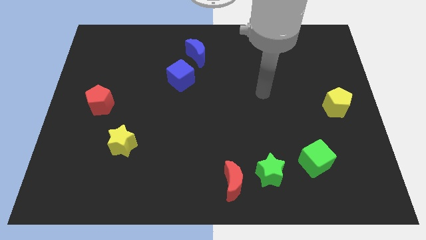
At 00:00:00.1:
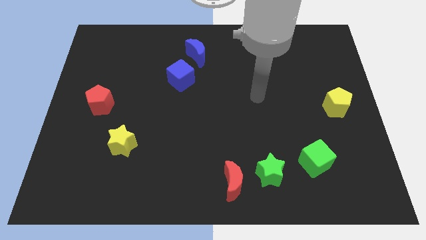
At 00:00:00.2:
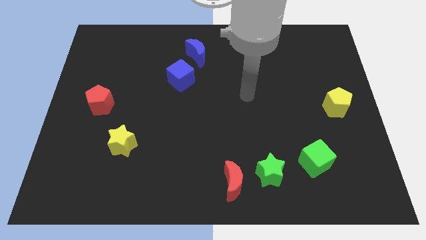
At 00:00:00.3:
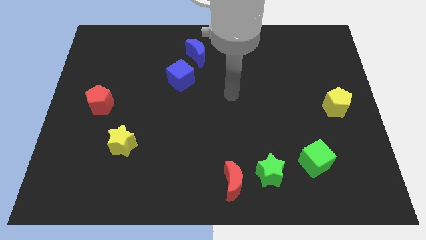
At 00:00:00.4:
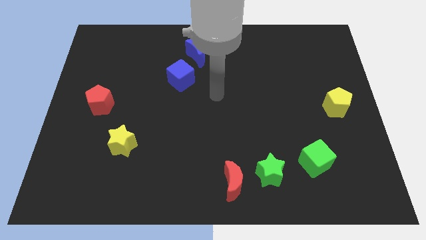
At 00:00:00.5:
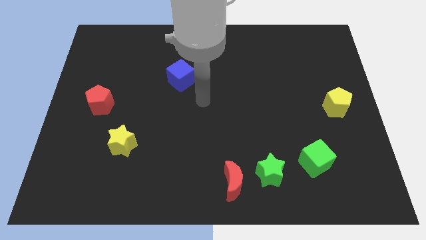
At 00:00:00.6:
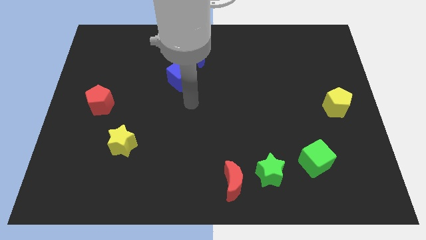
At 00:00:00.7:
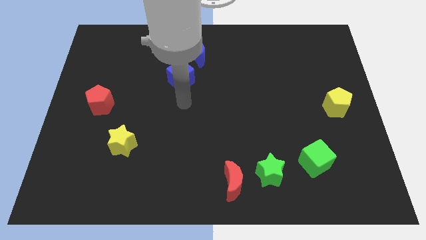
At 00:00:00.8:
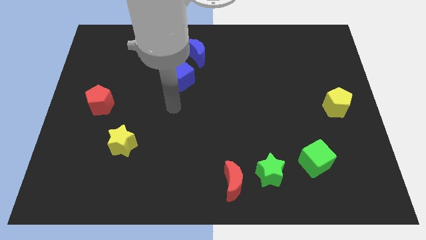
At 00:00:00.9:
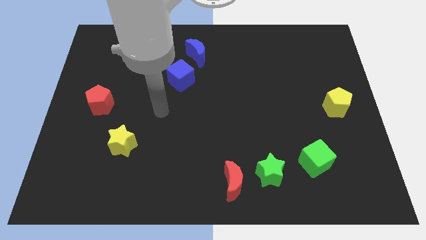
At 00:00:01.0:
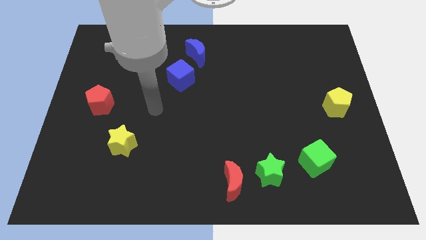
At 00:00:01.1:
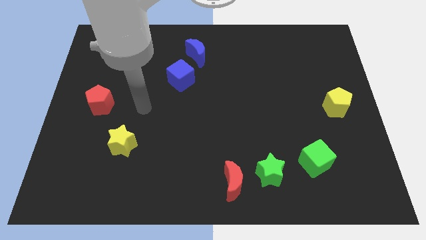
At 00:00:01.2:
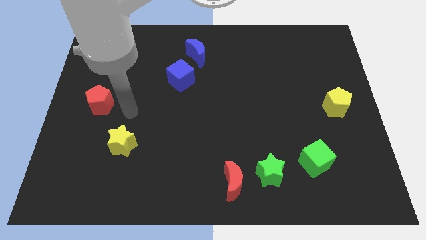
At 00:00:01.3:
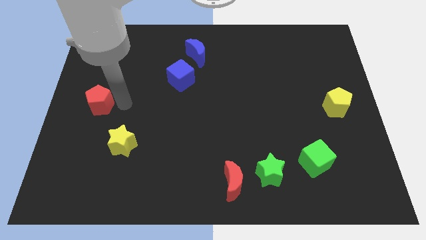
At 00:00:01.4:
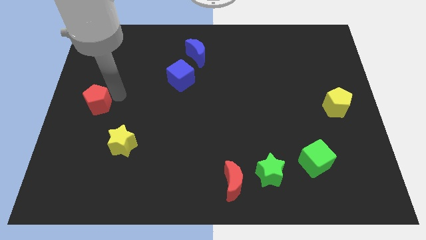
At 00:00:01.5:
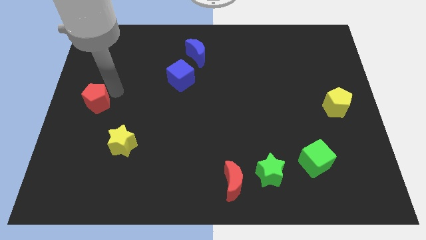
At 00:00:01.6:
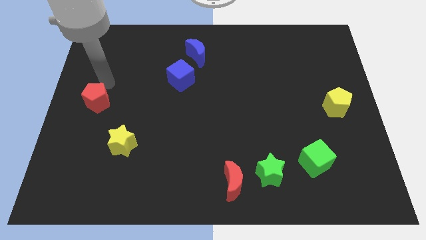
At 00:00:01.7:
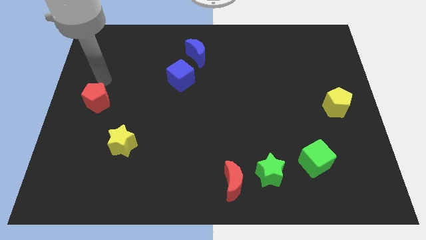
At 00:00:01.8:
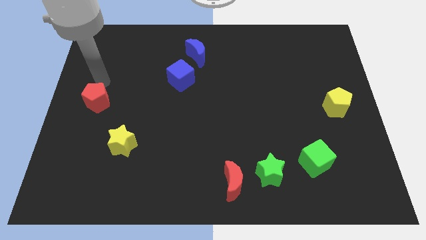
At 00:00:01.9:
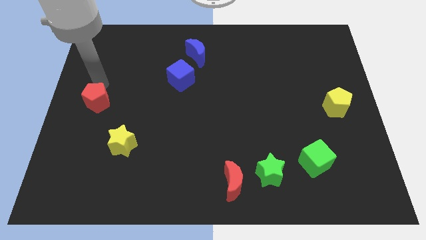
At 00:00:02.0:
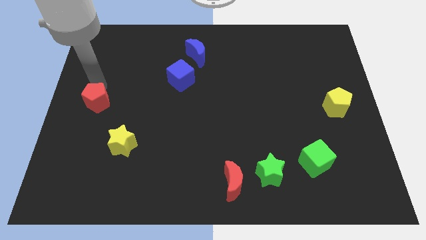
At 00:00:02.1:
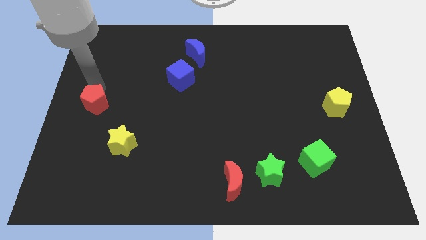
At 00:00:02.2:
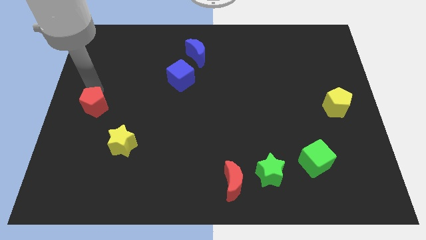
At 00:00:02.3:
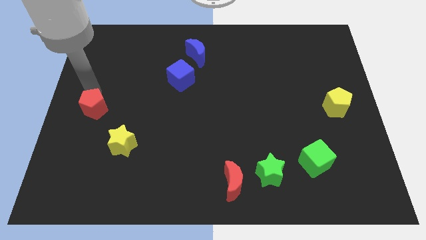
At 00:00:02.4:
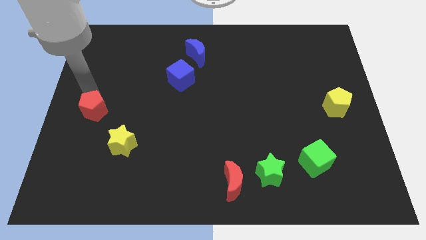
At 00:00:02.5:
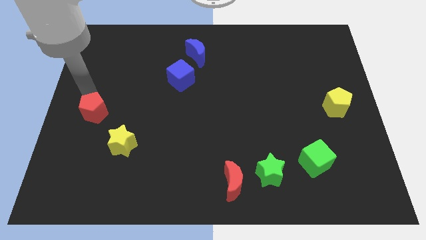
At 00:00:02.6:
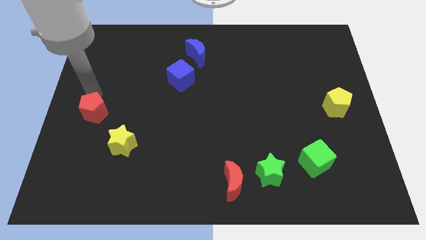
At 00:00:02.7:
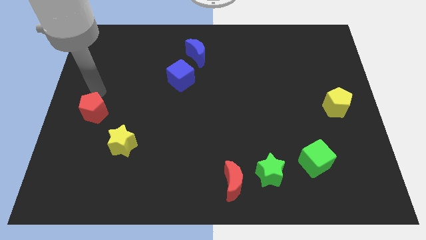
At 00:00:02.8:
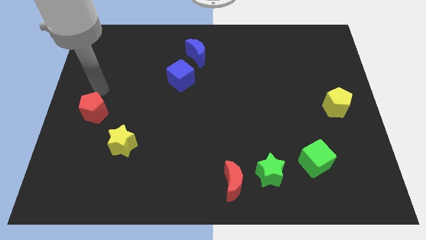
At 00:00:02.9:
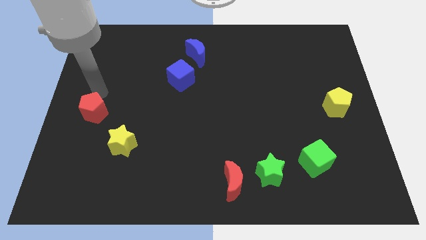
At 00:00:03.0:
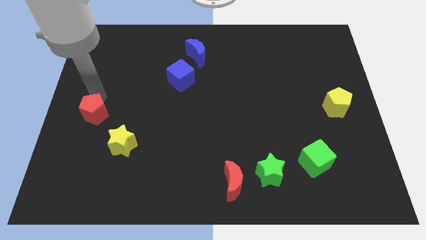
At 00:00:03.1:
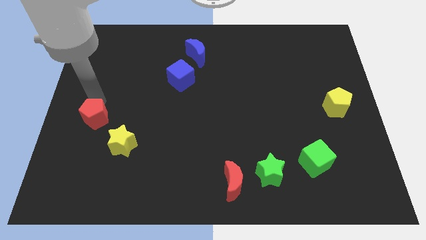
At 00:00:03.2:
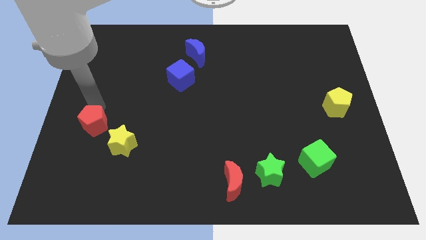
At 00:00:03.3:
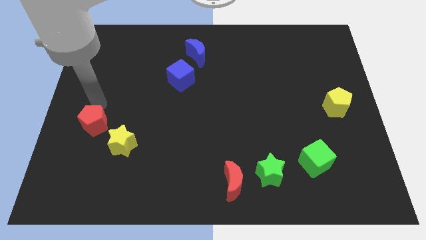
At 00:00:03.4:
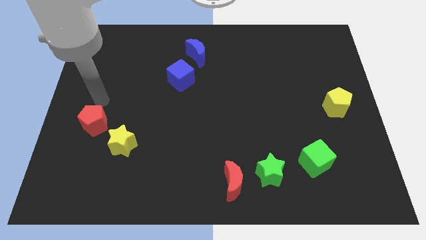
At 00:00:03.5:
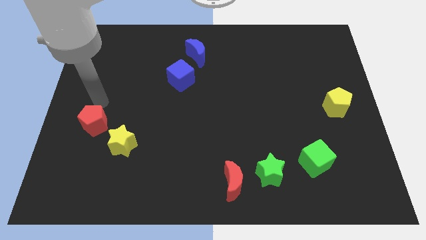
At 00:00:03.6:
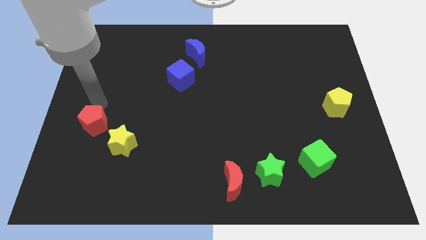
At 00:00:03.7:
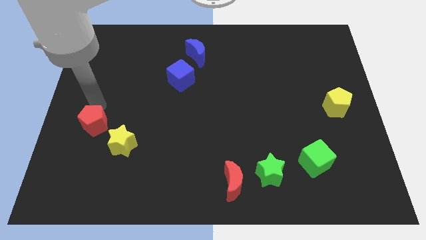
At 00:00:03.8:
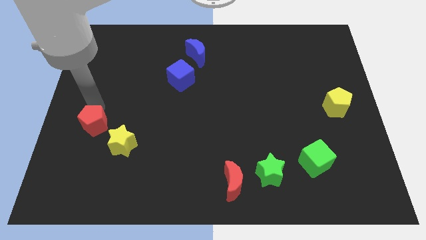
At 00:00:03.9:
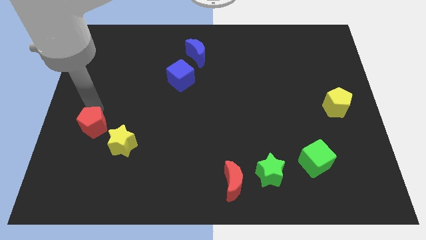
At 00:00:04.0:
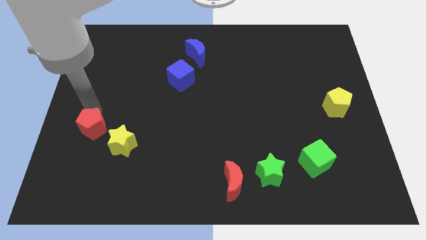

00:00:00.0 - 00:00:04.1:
slightly push the red pentagon downwards

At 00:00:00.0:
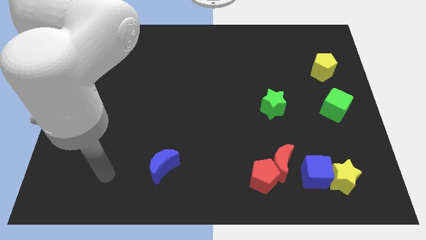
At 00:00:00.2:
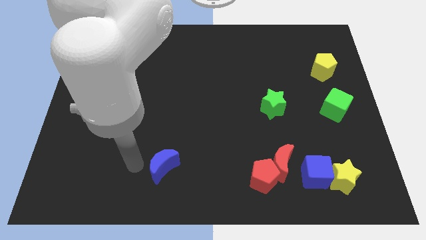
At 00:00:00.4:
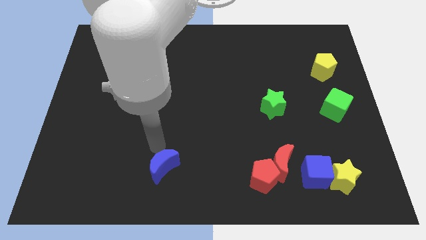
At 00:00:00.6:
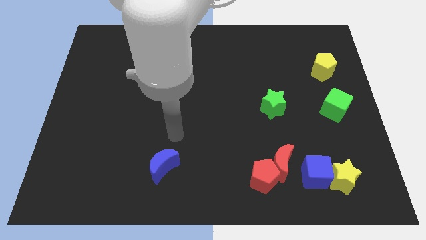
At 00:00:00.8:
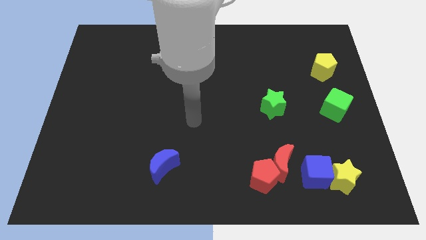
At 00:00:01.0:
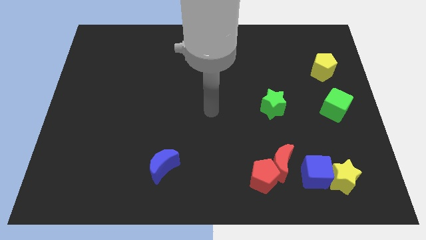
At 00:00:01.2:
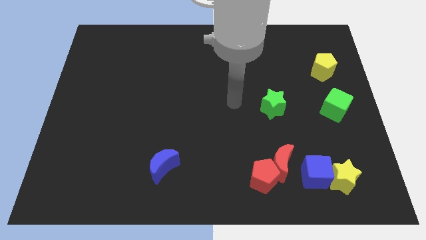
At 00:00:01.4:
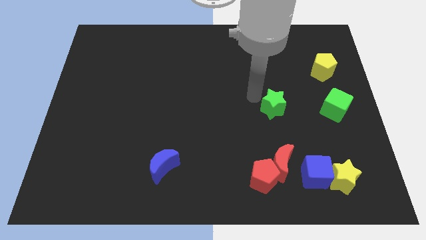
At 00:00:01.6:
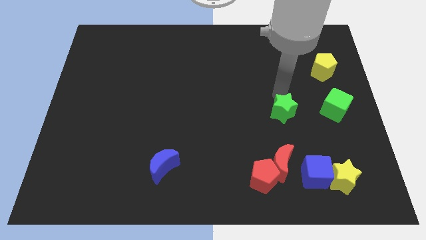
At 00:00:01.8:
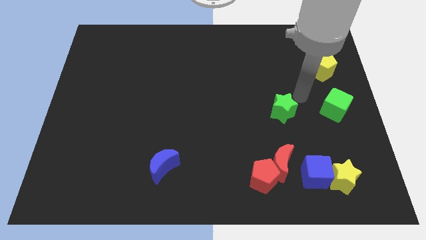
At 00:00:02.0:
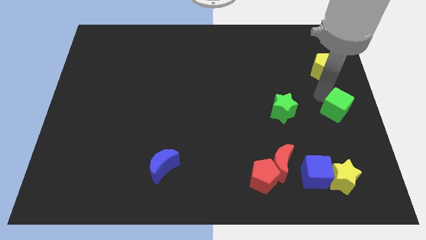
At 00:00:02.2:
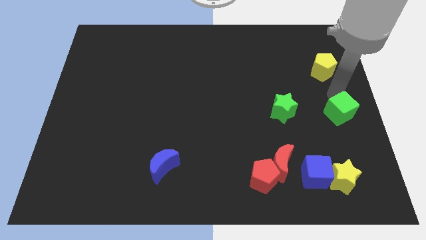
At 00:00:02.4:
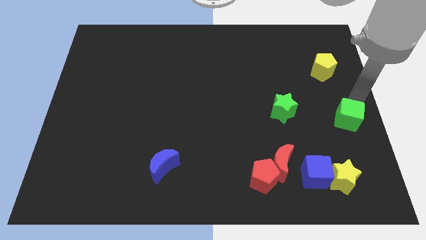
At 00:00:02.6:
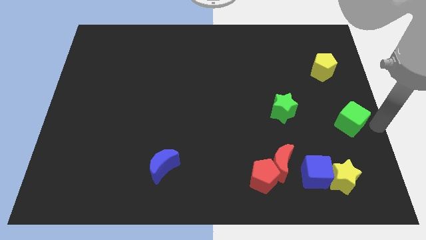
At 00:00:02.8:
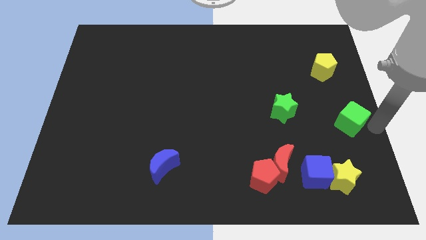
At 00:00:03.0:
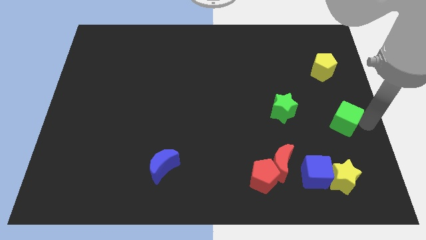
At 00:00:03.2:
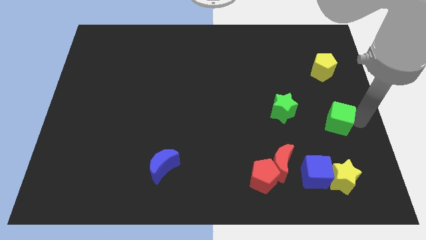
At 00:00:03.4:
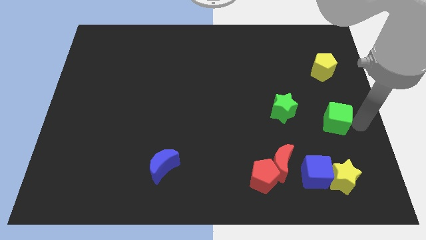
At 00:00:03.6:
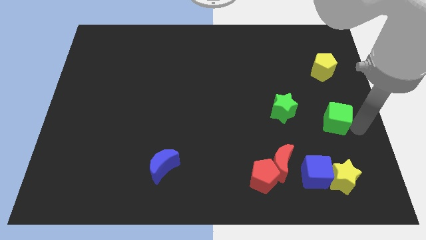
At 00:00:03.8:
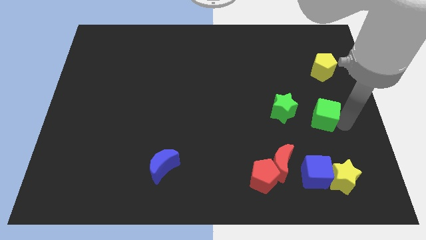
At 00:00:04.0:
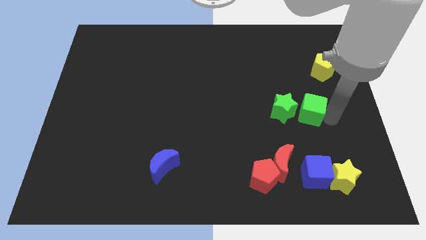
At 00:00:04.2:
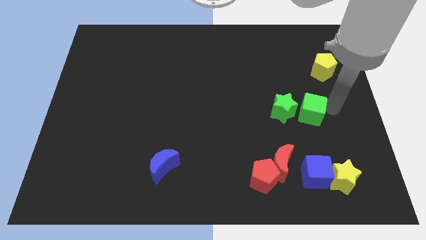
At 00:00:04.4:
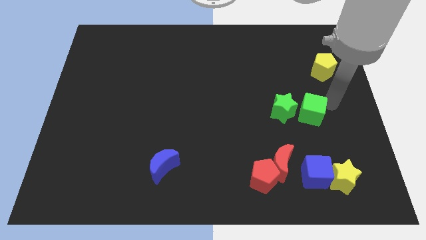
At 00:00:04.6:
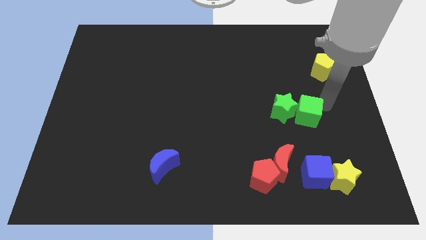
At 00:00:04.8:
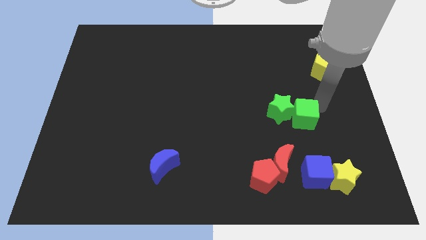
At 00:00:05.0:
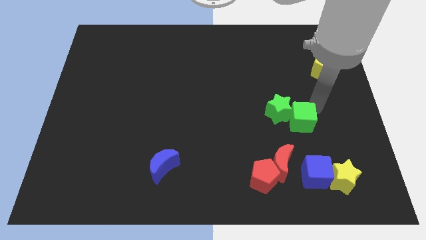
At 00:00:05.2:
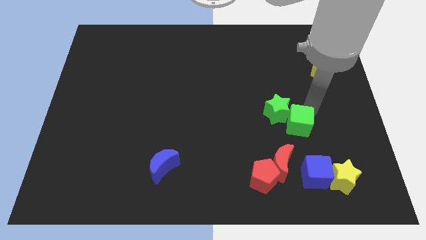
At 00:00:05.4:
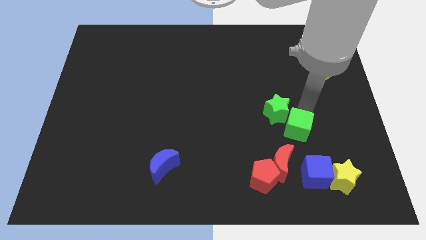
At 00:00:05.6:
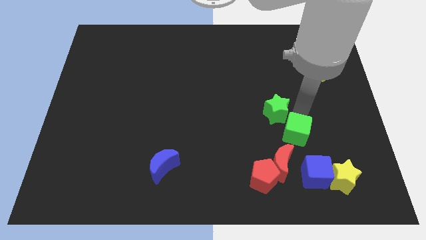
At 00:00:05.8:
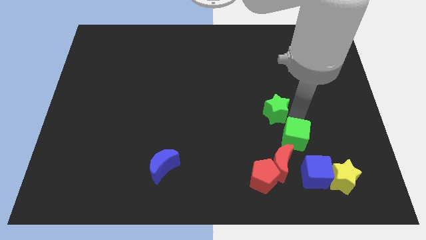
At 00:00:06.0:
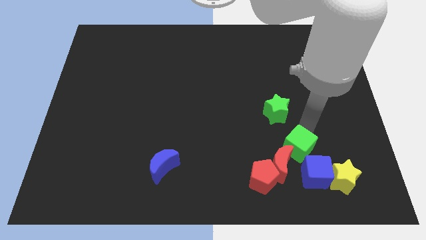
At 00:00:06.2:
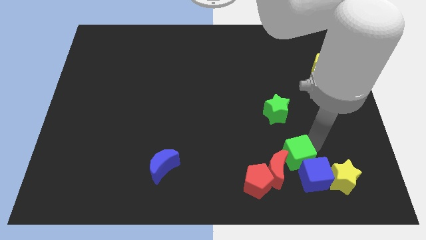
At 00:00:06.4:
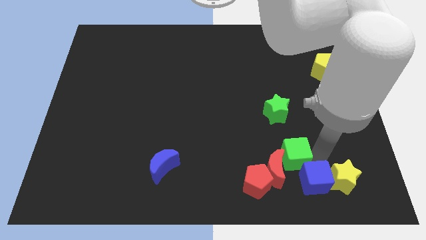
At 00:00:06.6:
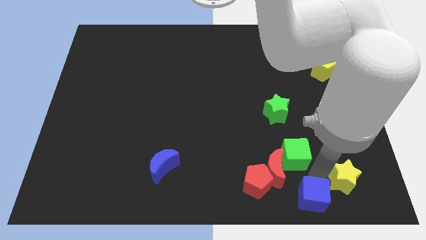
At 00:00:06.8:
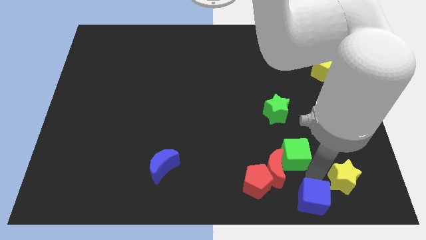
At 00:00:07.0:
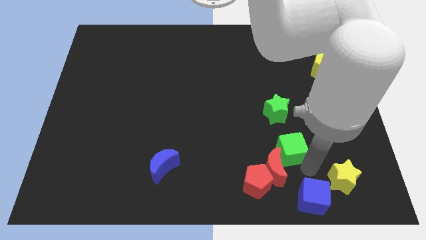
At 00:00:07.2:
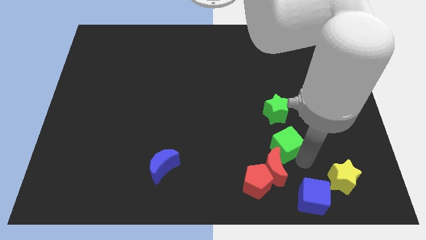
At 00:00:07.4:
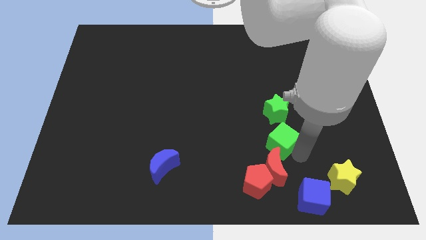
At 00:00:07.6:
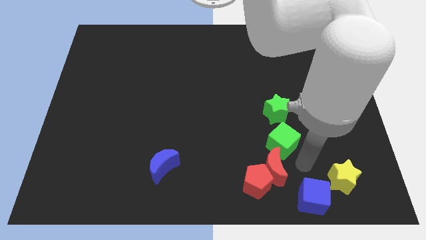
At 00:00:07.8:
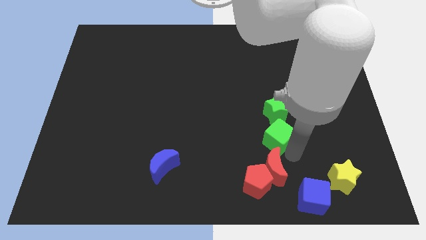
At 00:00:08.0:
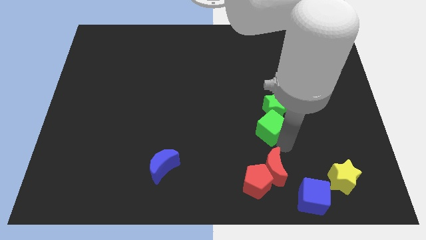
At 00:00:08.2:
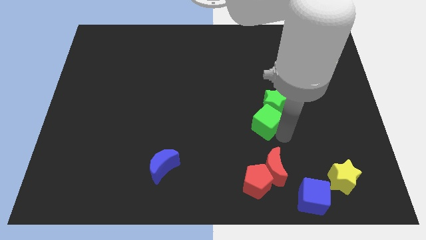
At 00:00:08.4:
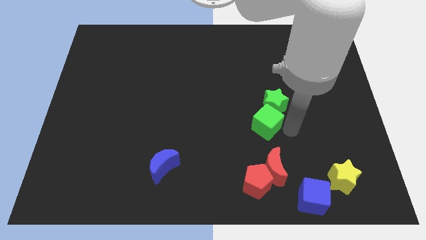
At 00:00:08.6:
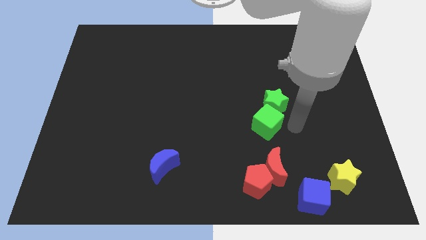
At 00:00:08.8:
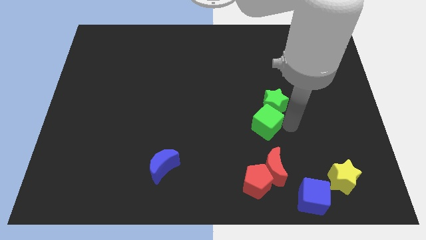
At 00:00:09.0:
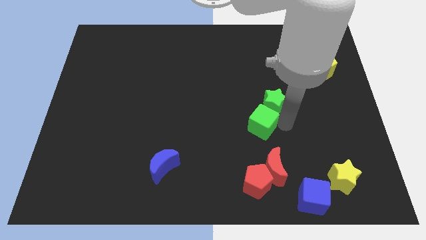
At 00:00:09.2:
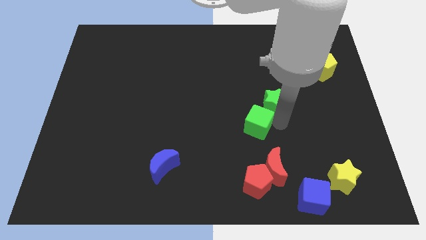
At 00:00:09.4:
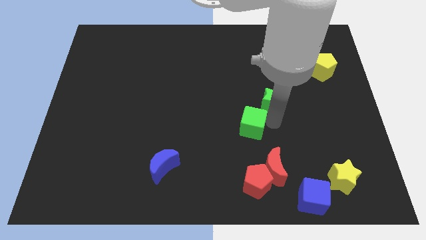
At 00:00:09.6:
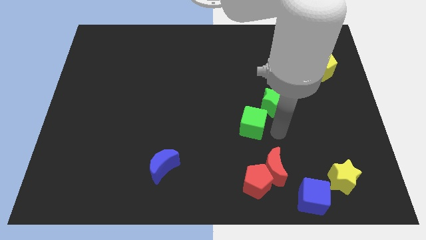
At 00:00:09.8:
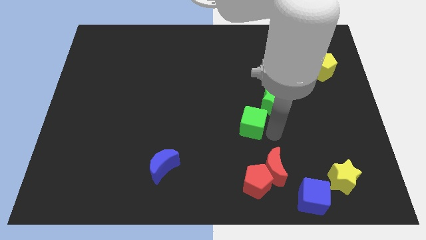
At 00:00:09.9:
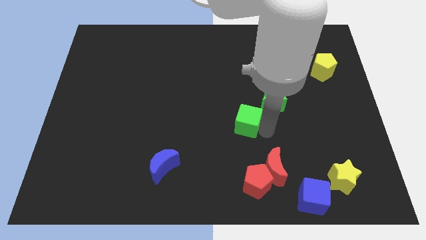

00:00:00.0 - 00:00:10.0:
push the green cube to the left
